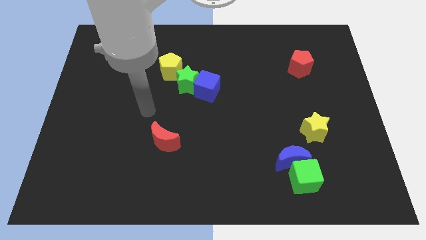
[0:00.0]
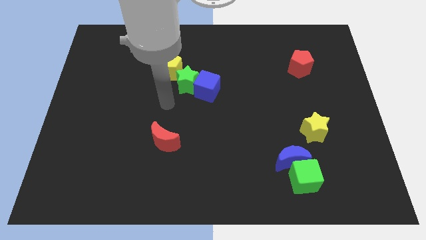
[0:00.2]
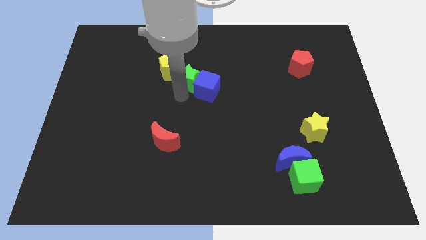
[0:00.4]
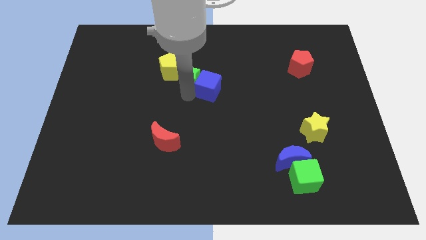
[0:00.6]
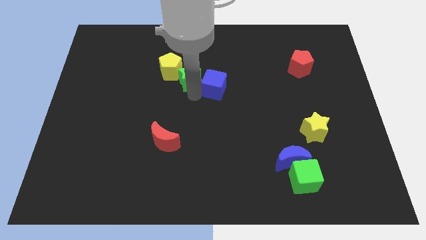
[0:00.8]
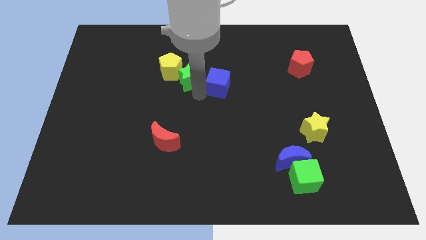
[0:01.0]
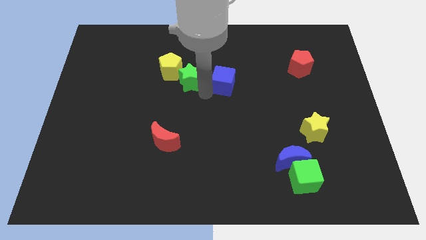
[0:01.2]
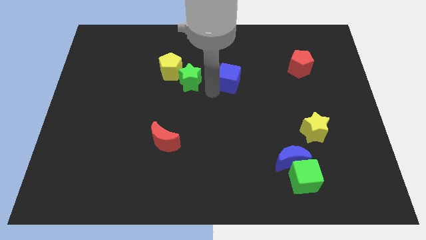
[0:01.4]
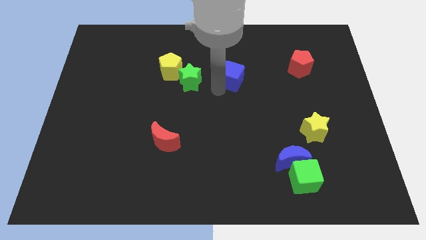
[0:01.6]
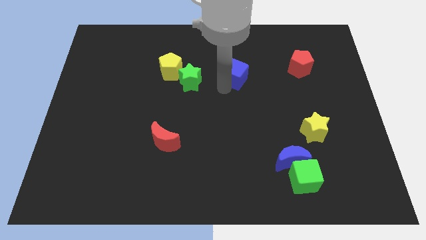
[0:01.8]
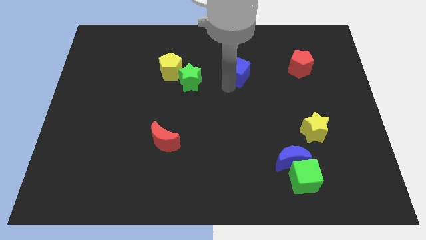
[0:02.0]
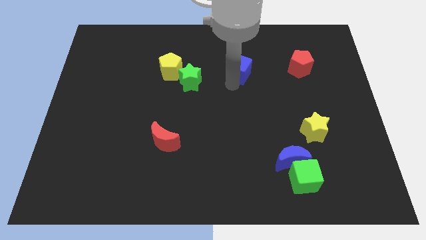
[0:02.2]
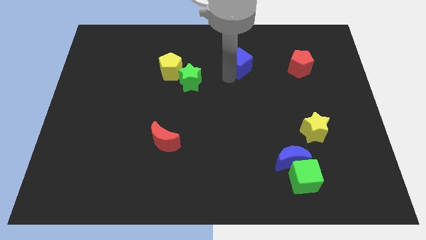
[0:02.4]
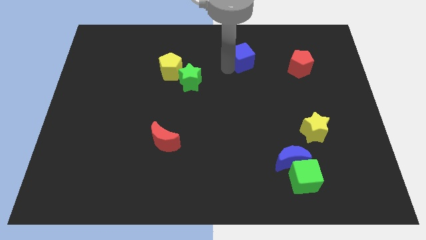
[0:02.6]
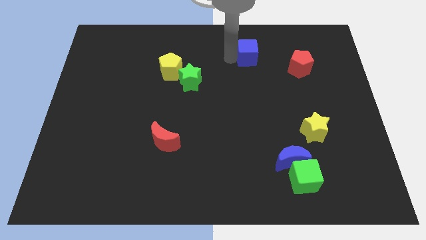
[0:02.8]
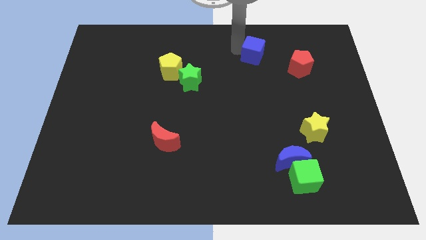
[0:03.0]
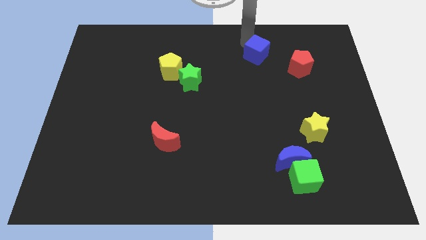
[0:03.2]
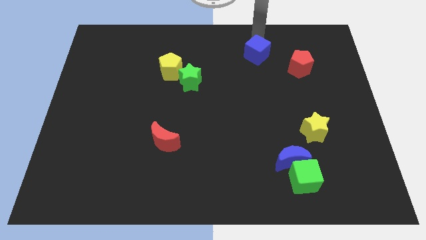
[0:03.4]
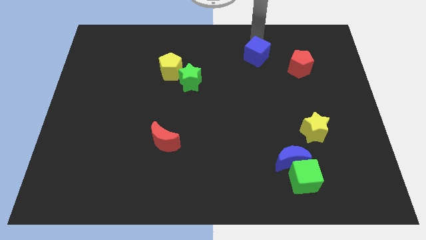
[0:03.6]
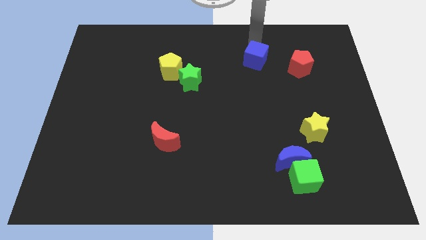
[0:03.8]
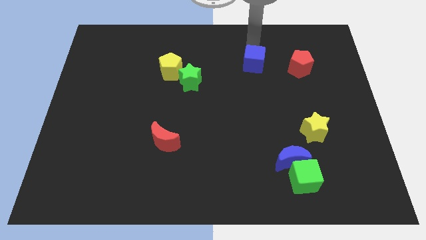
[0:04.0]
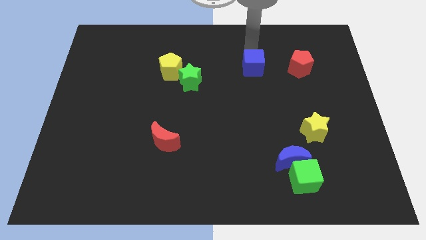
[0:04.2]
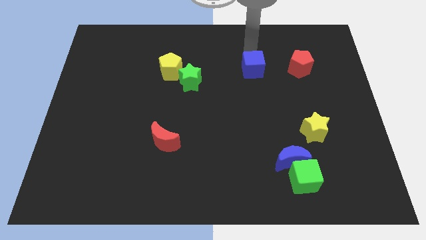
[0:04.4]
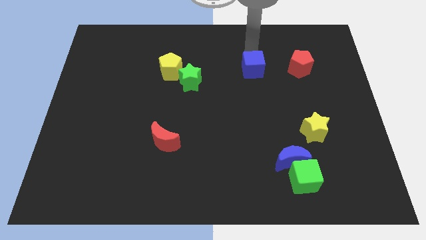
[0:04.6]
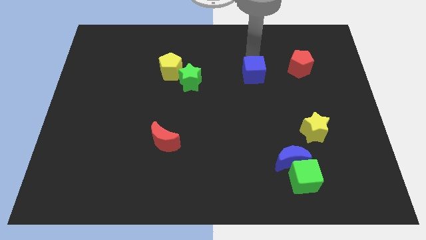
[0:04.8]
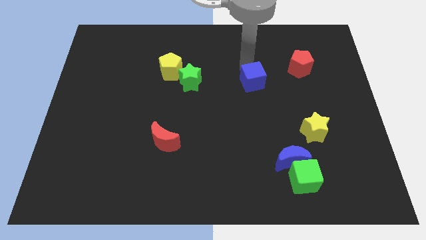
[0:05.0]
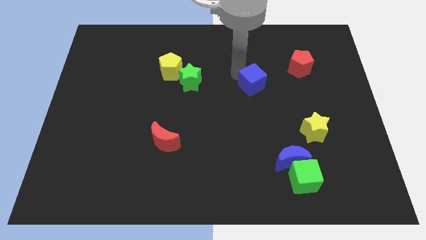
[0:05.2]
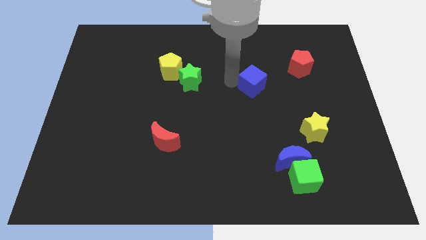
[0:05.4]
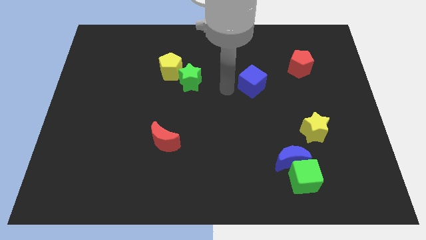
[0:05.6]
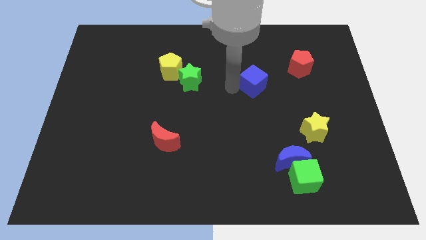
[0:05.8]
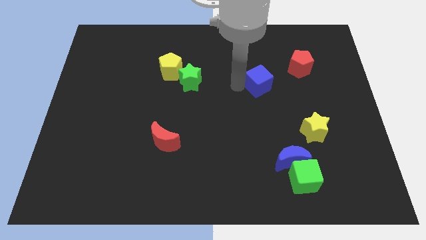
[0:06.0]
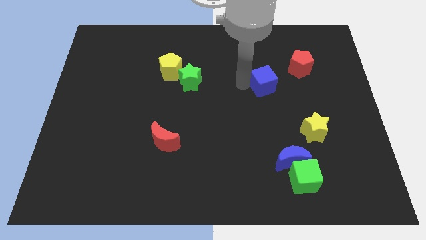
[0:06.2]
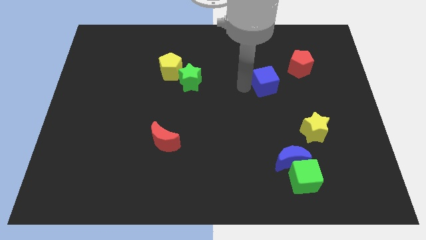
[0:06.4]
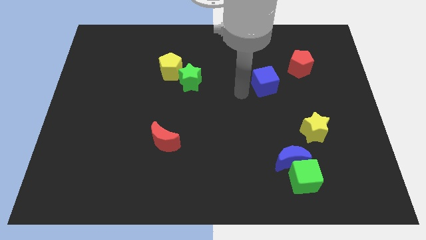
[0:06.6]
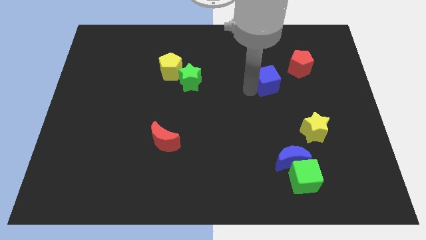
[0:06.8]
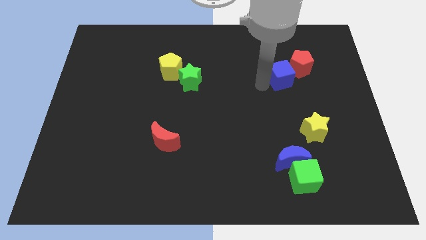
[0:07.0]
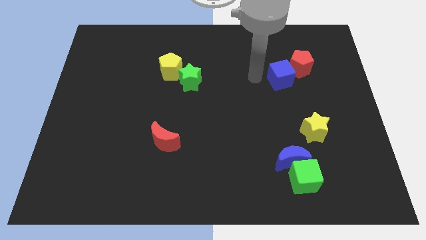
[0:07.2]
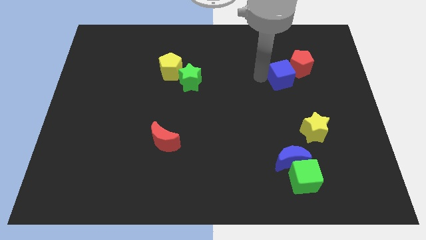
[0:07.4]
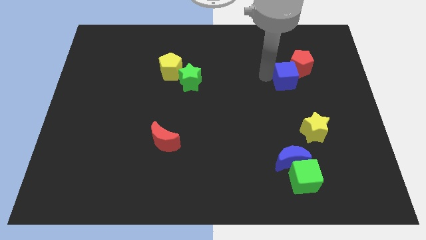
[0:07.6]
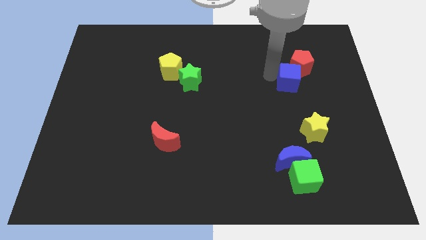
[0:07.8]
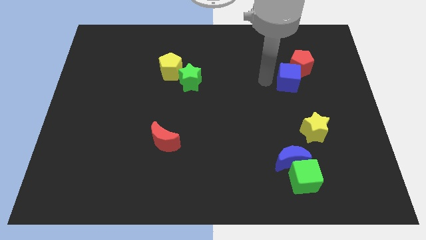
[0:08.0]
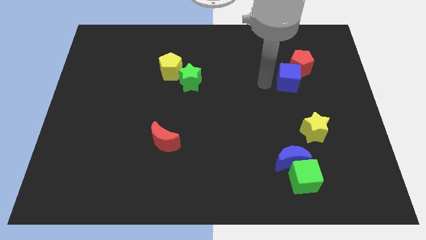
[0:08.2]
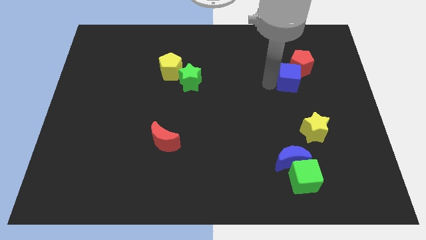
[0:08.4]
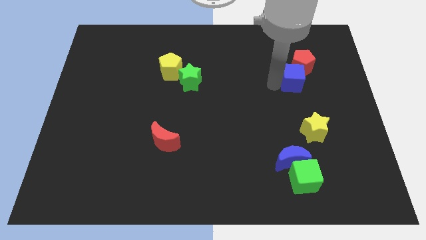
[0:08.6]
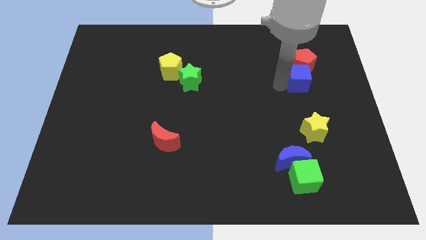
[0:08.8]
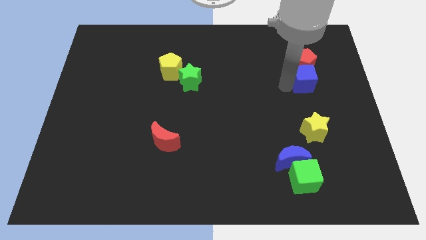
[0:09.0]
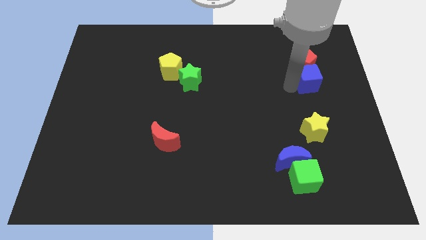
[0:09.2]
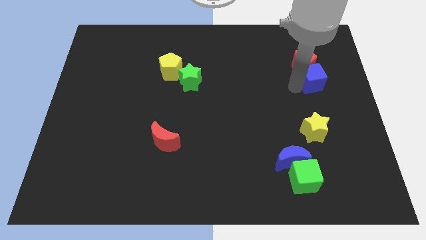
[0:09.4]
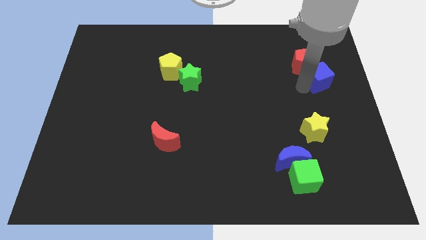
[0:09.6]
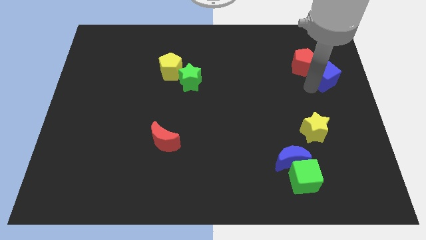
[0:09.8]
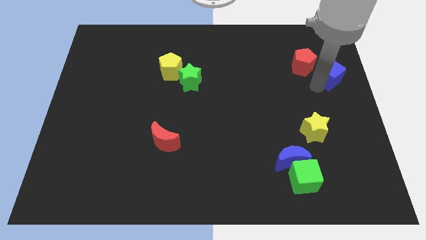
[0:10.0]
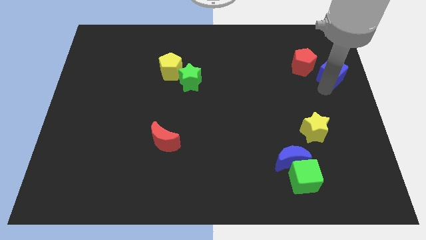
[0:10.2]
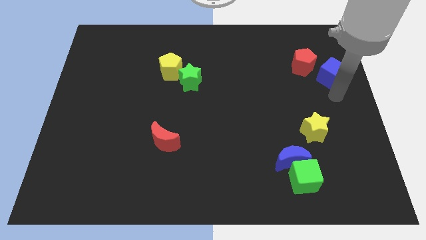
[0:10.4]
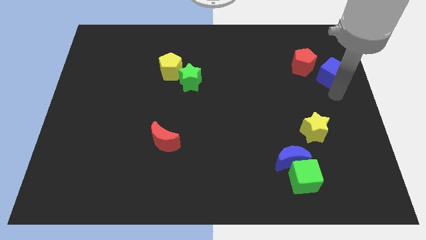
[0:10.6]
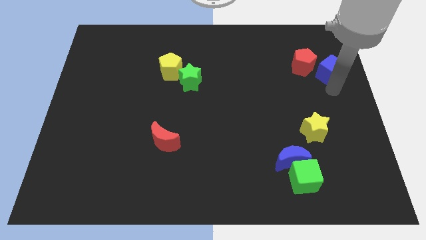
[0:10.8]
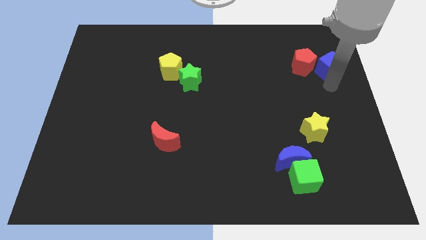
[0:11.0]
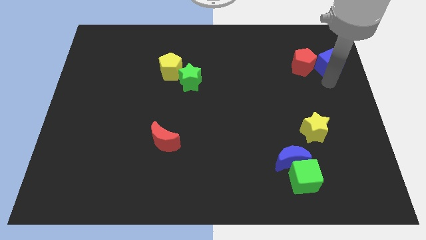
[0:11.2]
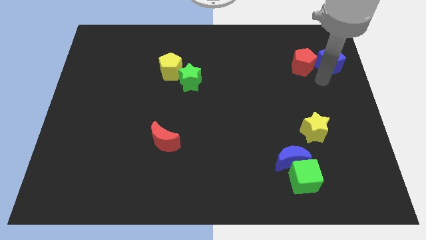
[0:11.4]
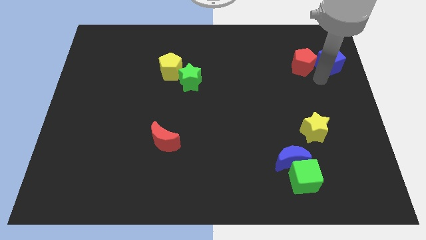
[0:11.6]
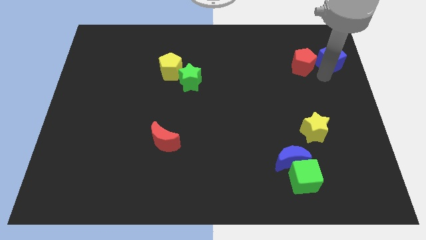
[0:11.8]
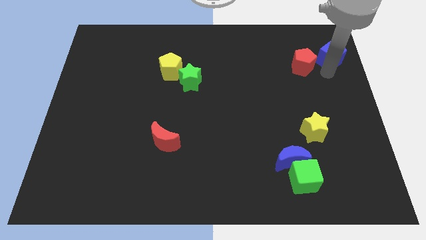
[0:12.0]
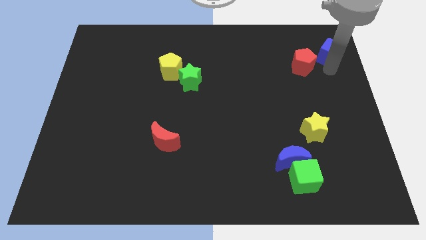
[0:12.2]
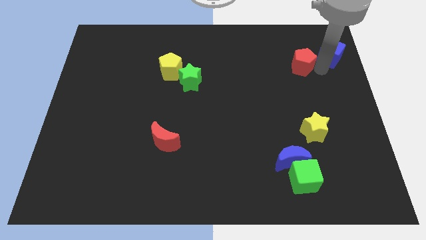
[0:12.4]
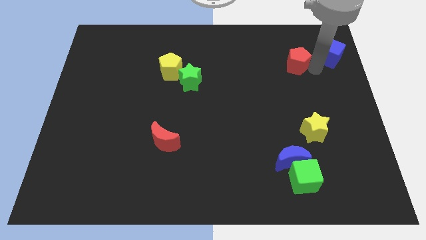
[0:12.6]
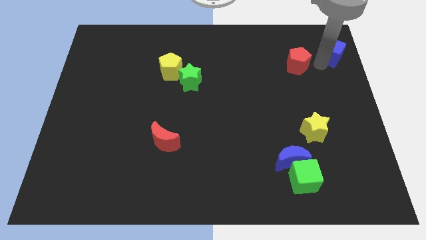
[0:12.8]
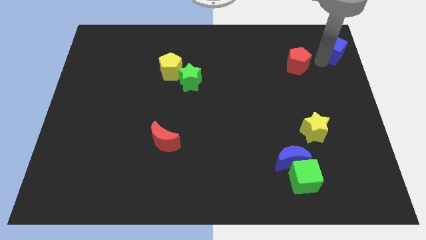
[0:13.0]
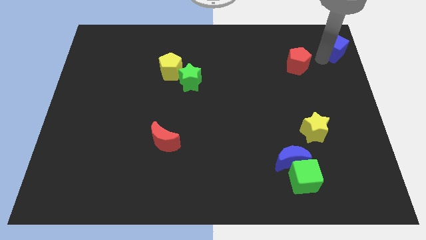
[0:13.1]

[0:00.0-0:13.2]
slide the blue cube to the top right of the board
